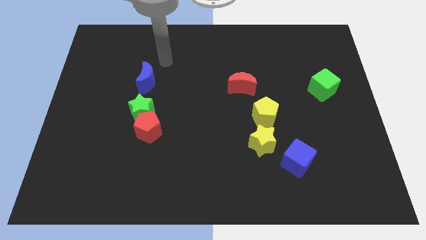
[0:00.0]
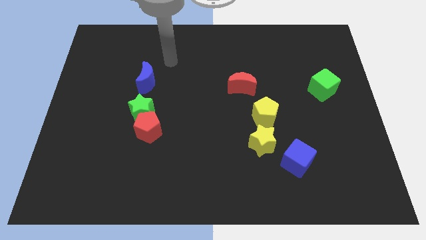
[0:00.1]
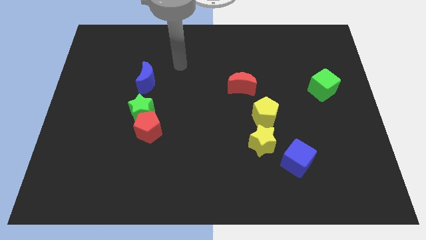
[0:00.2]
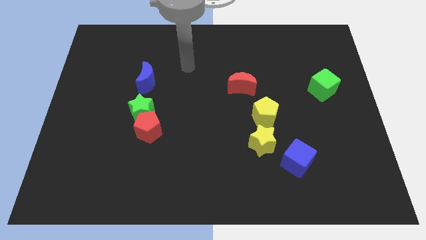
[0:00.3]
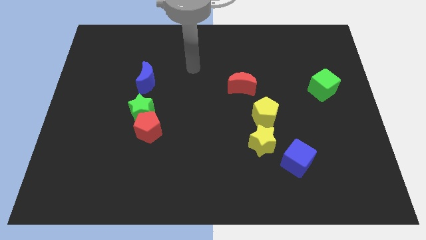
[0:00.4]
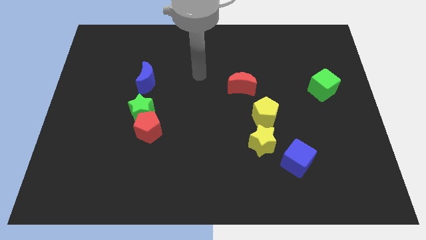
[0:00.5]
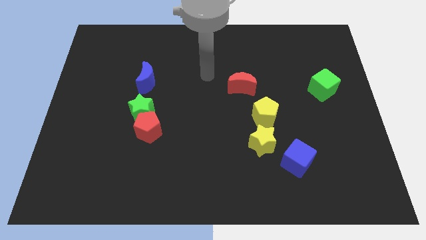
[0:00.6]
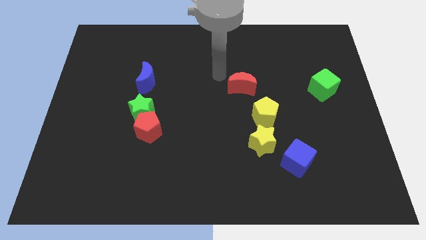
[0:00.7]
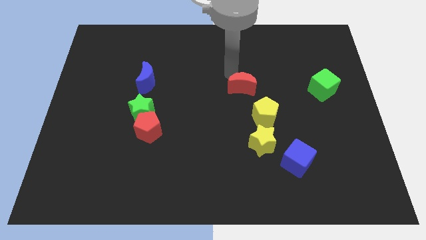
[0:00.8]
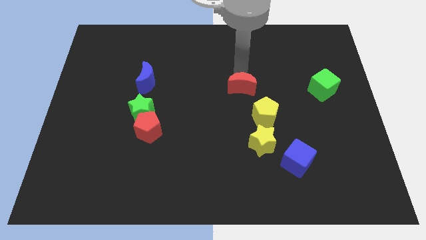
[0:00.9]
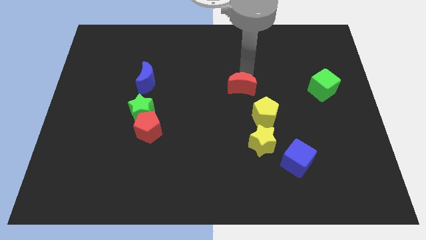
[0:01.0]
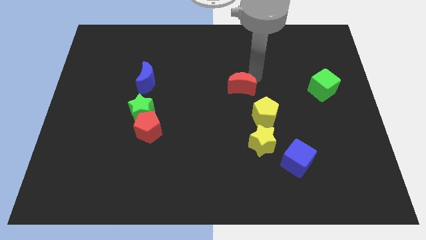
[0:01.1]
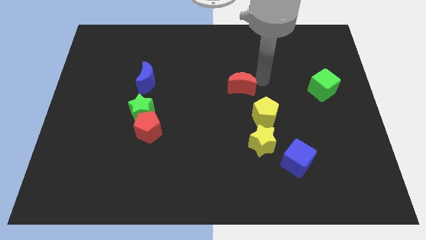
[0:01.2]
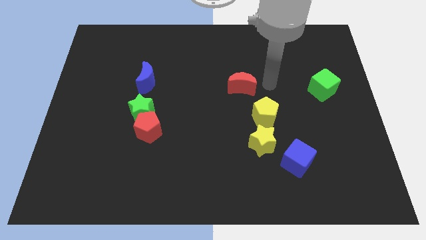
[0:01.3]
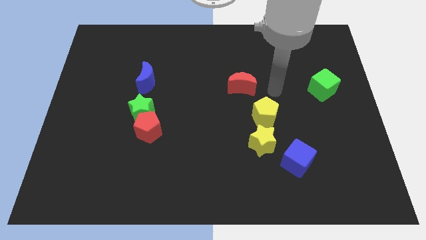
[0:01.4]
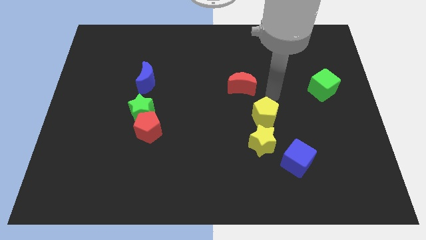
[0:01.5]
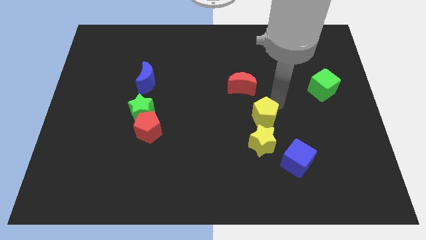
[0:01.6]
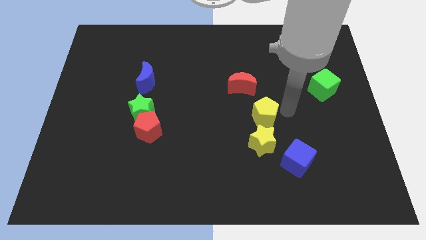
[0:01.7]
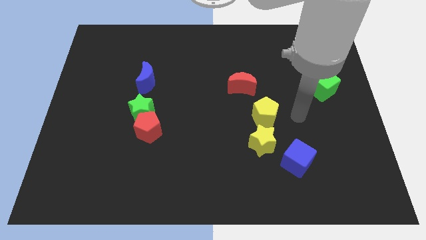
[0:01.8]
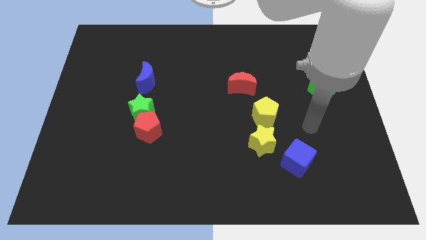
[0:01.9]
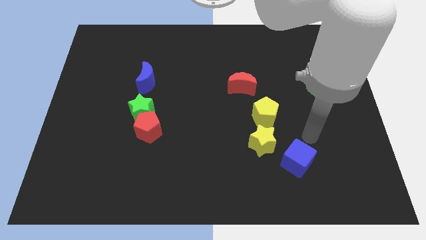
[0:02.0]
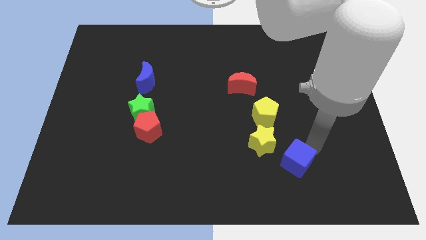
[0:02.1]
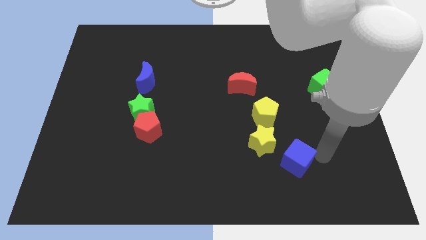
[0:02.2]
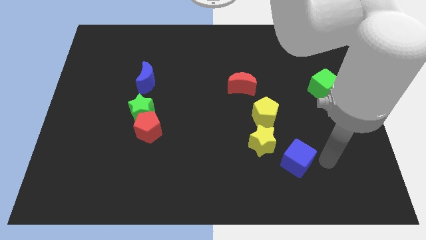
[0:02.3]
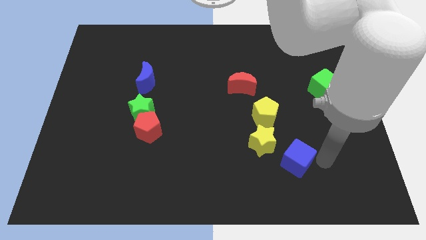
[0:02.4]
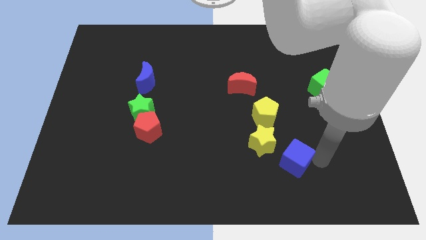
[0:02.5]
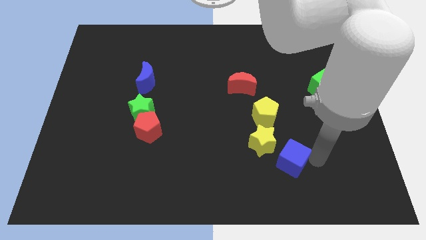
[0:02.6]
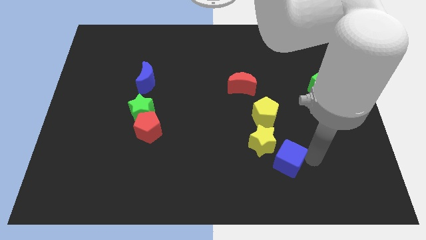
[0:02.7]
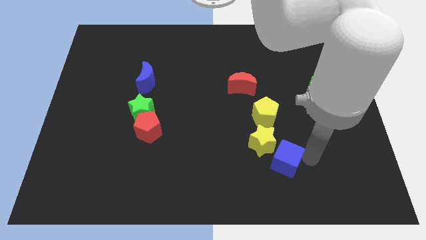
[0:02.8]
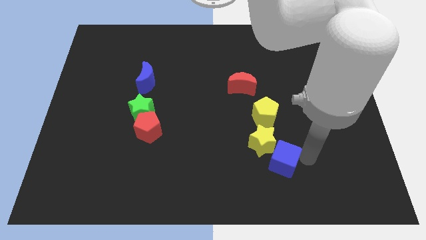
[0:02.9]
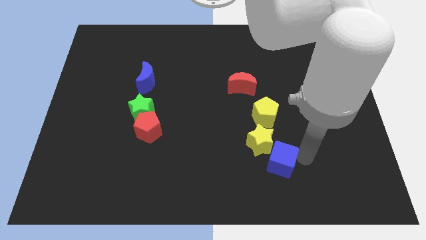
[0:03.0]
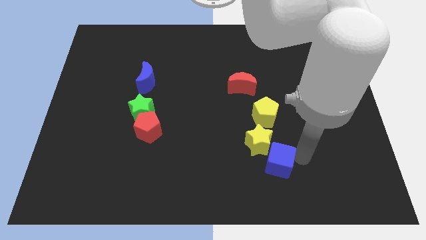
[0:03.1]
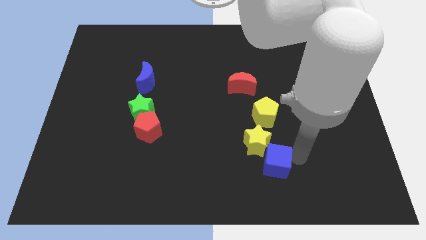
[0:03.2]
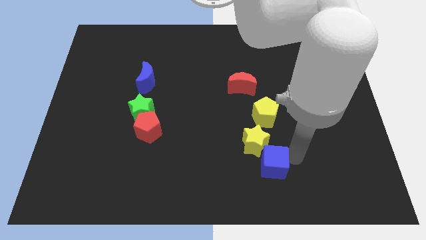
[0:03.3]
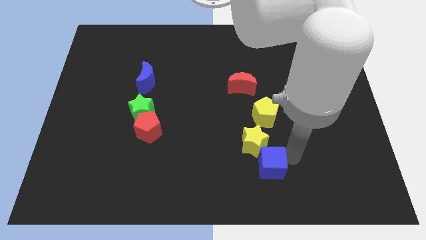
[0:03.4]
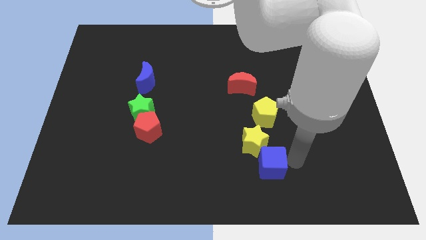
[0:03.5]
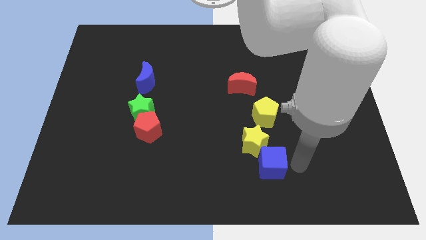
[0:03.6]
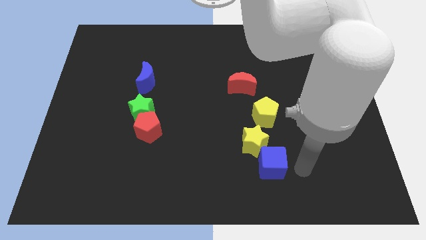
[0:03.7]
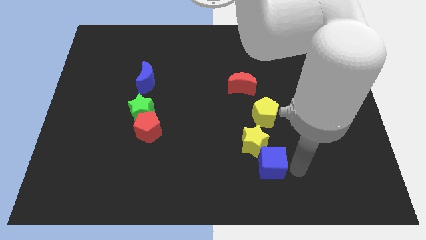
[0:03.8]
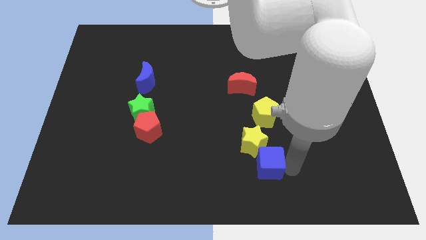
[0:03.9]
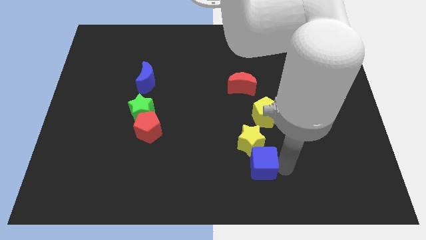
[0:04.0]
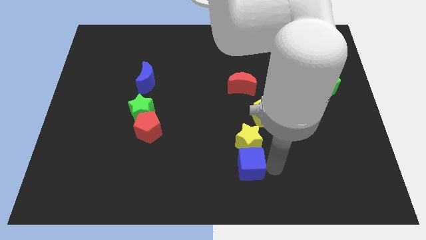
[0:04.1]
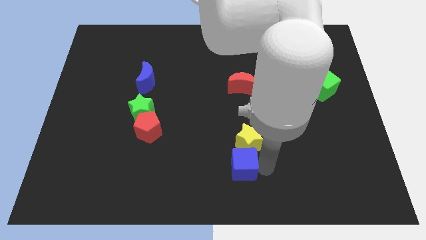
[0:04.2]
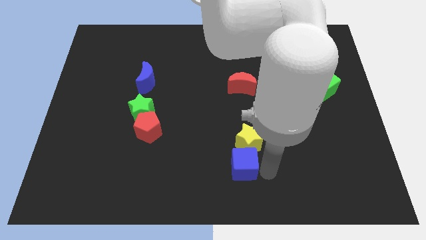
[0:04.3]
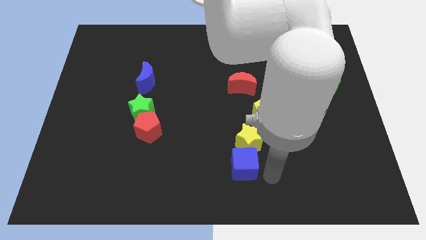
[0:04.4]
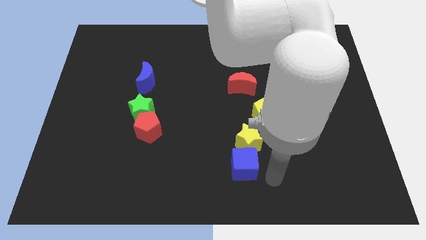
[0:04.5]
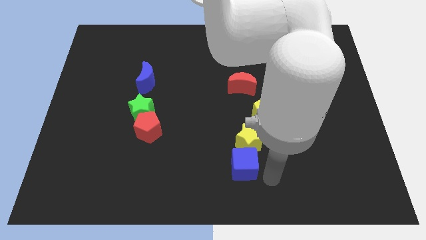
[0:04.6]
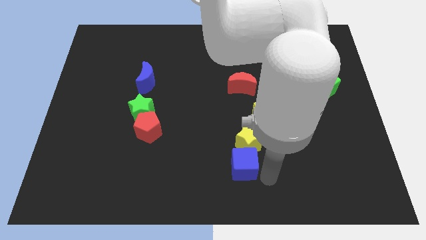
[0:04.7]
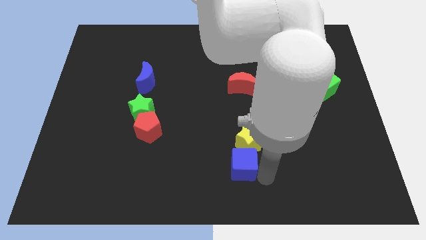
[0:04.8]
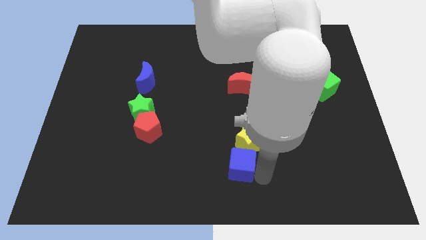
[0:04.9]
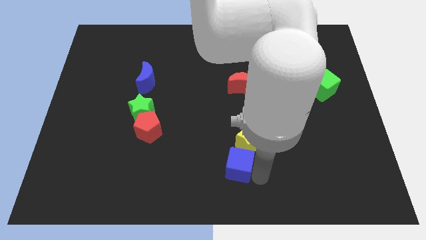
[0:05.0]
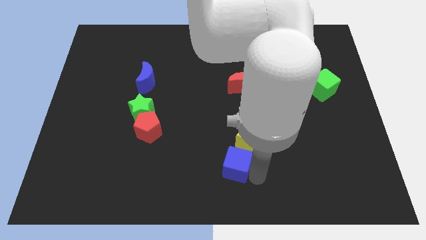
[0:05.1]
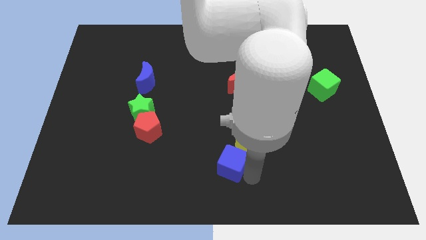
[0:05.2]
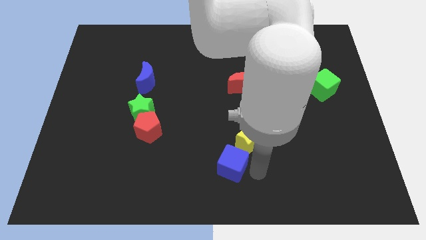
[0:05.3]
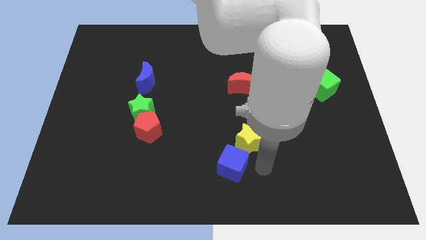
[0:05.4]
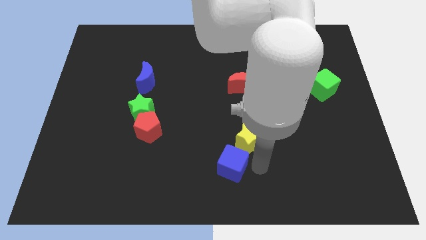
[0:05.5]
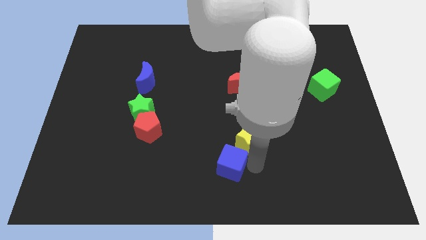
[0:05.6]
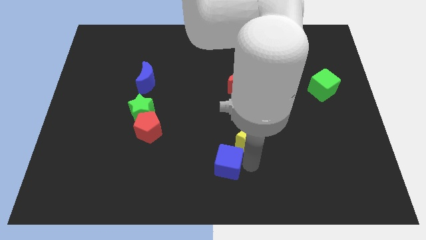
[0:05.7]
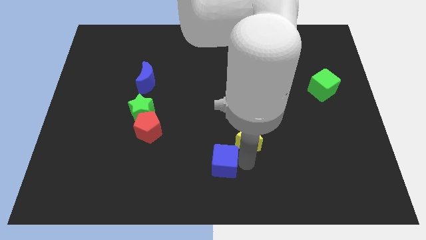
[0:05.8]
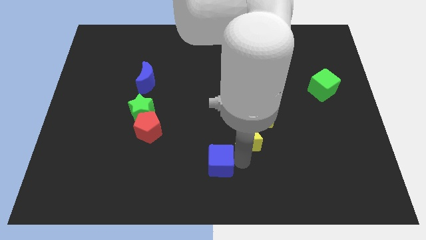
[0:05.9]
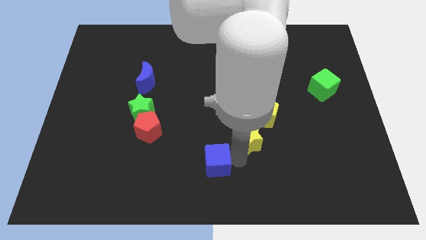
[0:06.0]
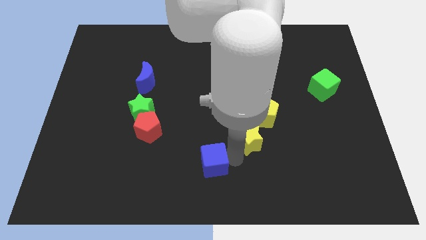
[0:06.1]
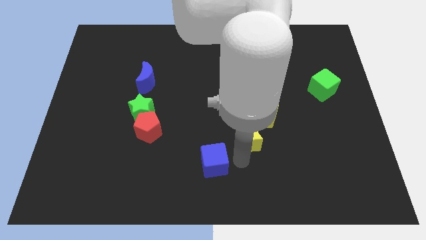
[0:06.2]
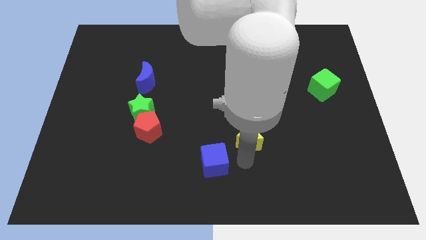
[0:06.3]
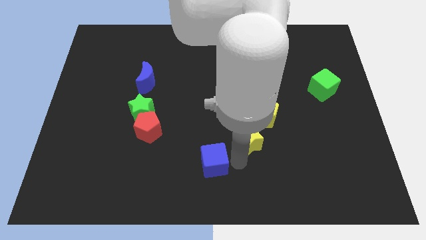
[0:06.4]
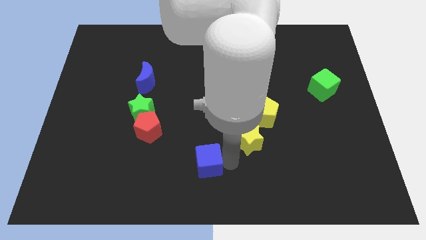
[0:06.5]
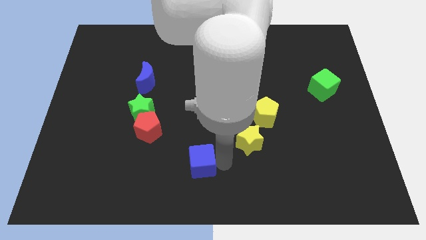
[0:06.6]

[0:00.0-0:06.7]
move the blue cube to the left

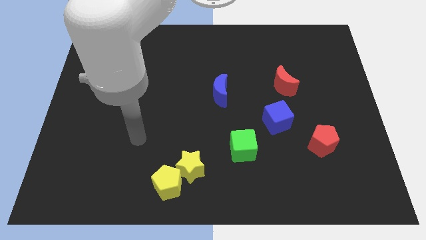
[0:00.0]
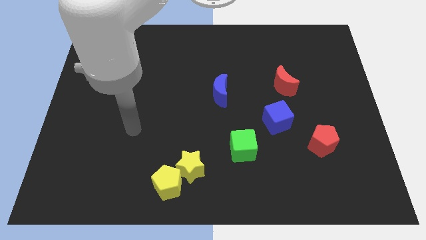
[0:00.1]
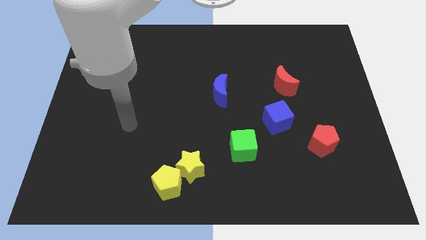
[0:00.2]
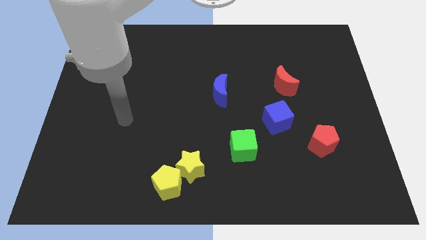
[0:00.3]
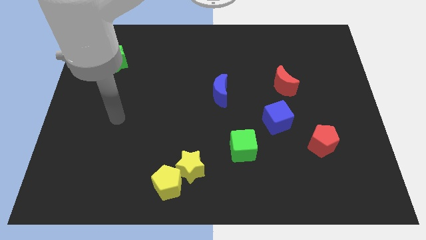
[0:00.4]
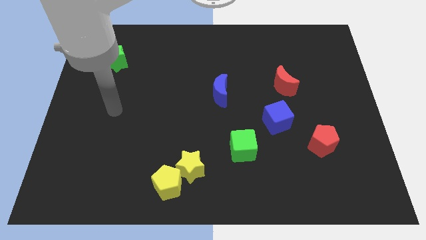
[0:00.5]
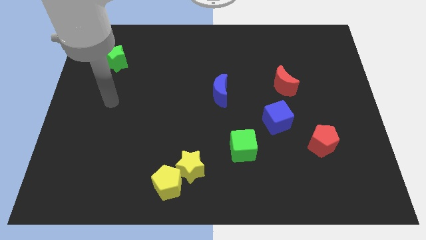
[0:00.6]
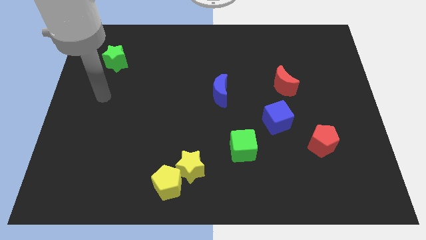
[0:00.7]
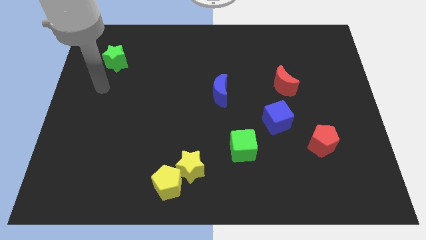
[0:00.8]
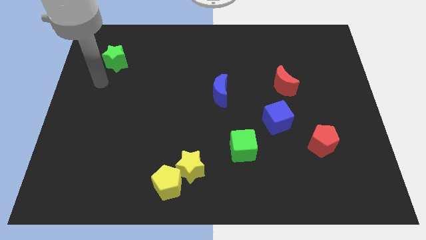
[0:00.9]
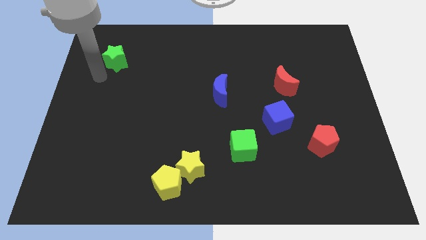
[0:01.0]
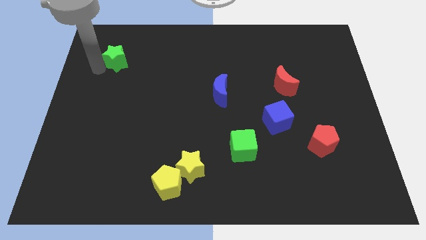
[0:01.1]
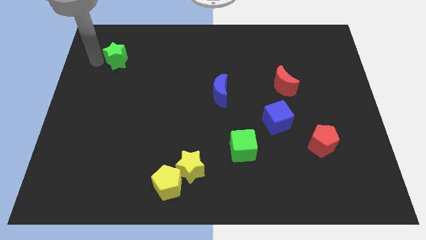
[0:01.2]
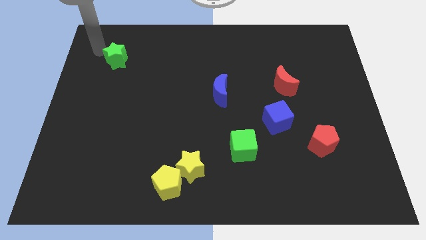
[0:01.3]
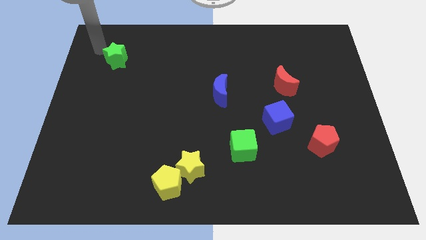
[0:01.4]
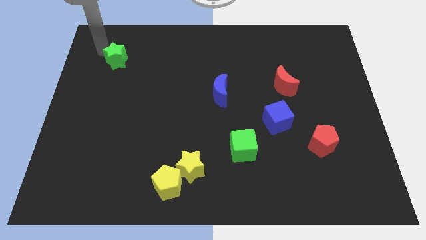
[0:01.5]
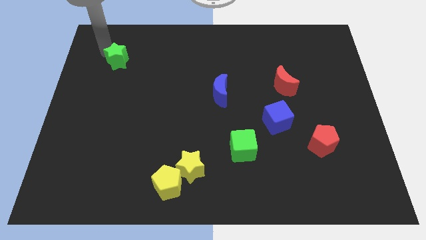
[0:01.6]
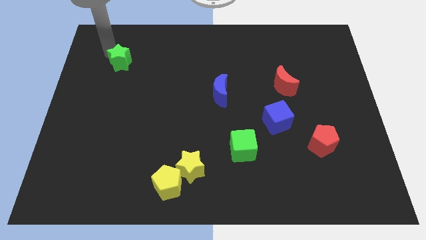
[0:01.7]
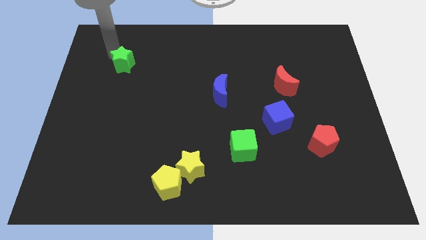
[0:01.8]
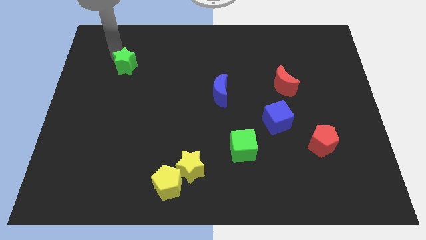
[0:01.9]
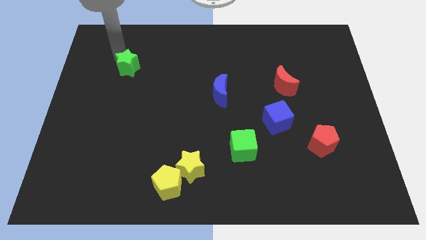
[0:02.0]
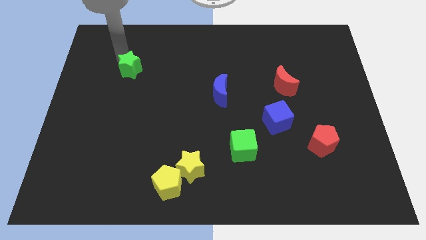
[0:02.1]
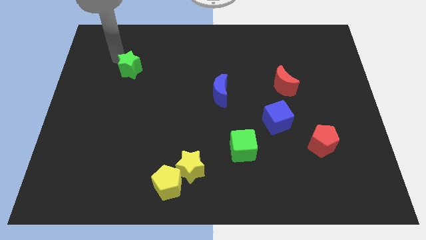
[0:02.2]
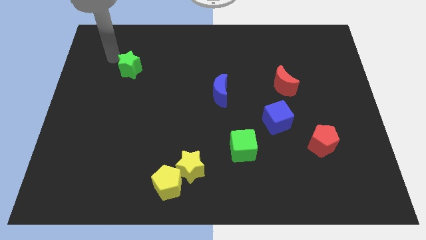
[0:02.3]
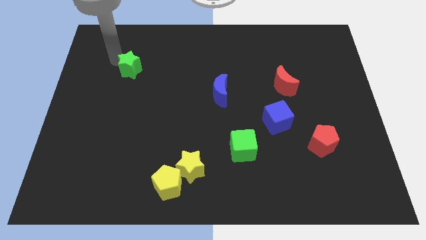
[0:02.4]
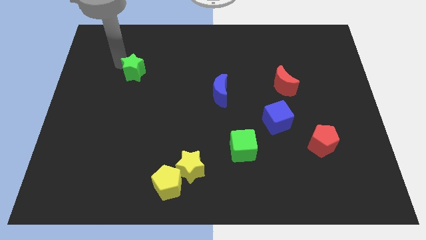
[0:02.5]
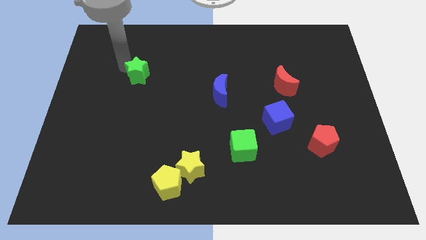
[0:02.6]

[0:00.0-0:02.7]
move the green star a little down and right
